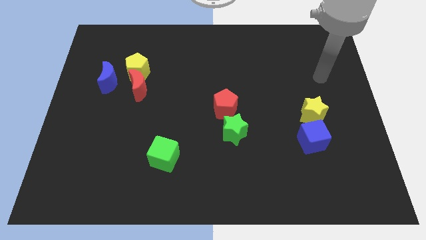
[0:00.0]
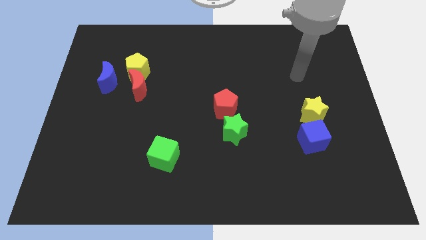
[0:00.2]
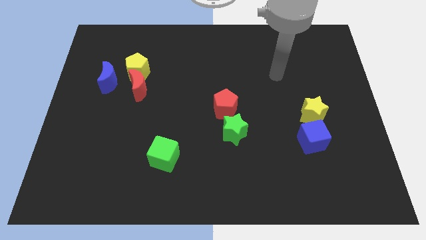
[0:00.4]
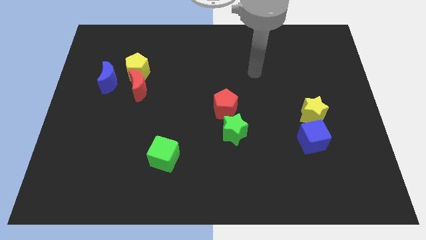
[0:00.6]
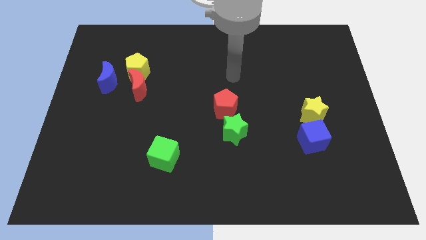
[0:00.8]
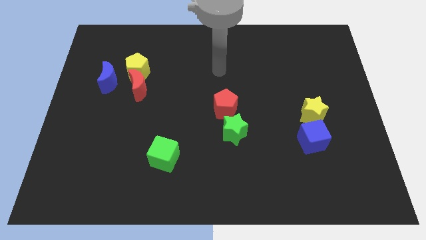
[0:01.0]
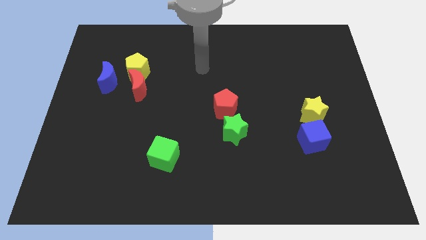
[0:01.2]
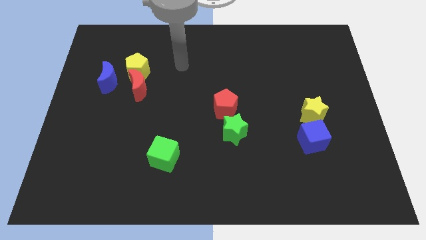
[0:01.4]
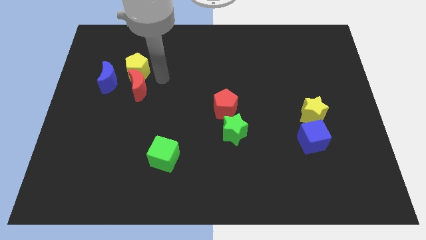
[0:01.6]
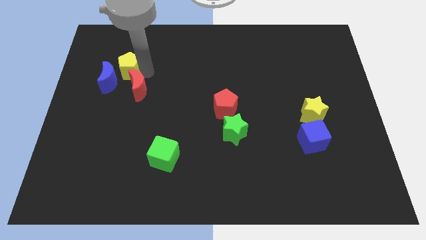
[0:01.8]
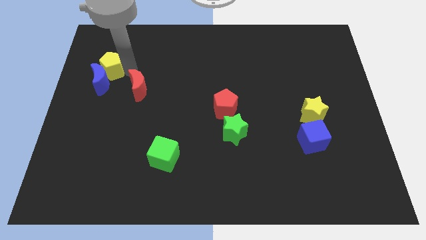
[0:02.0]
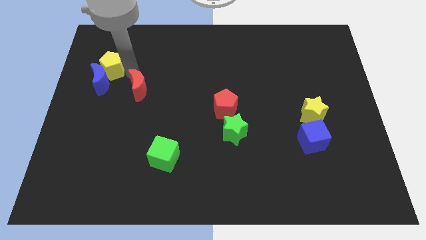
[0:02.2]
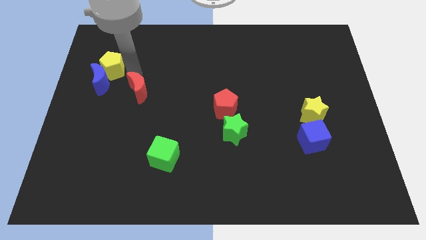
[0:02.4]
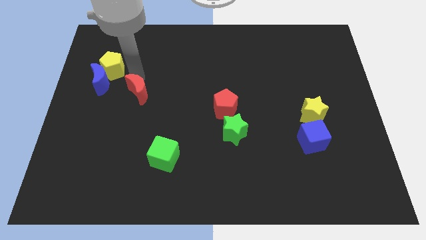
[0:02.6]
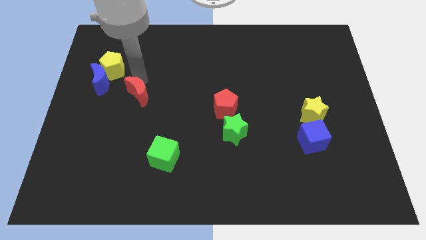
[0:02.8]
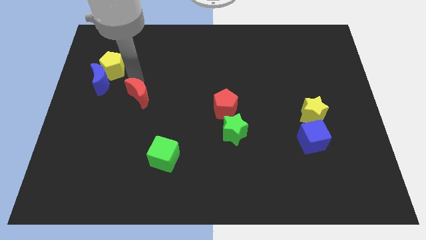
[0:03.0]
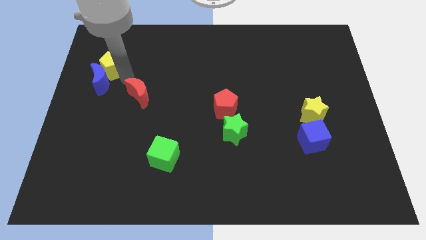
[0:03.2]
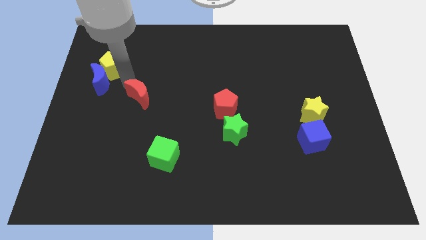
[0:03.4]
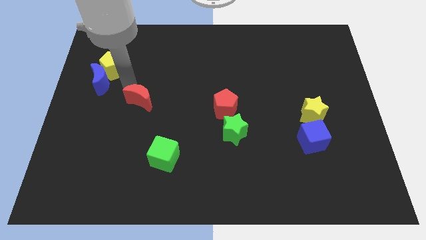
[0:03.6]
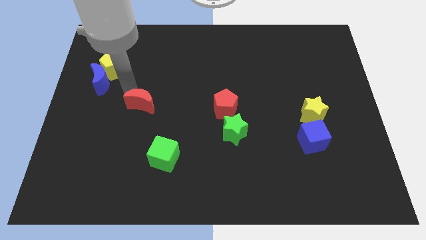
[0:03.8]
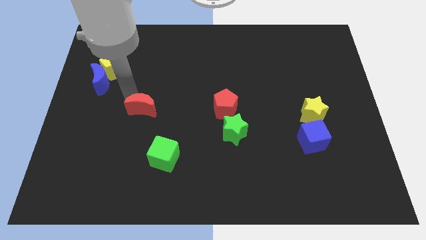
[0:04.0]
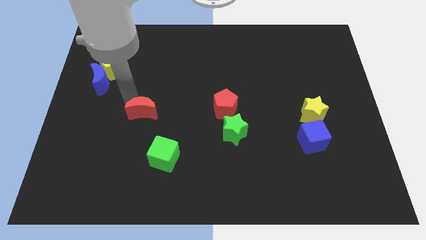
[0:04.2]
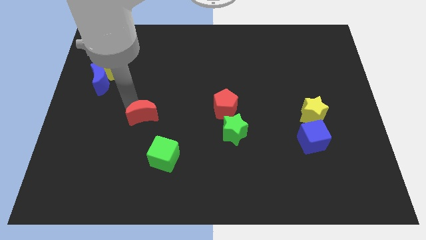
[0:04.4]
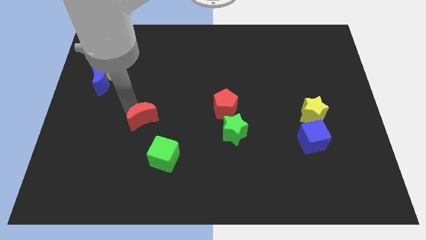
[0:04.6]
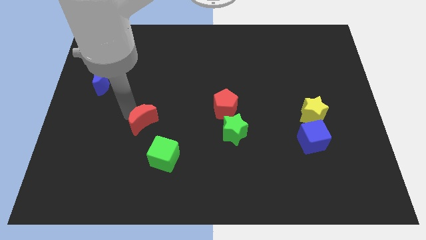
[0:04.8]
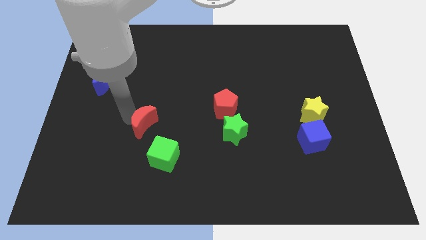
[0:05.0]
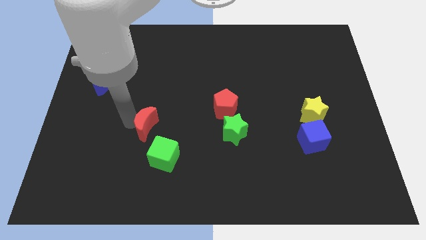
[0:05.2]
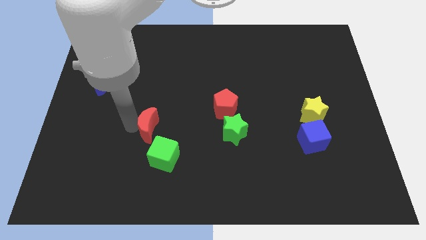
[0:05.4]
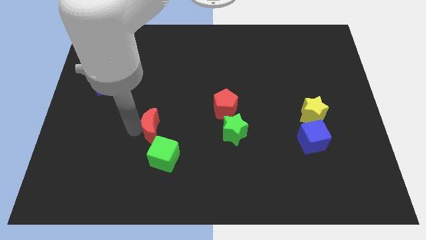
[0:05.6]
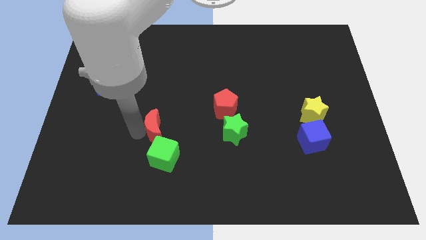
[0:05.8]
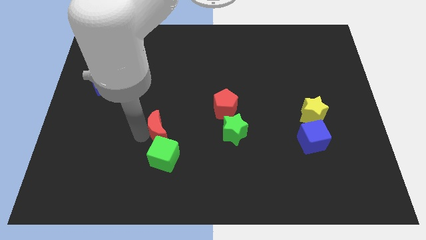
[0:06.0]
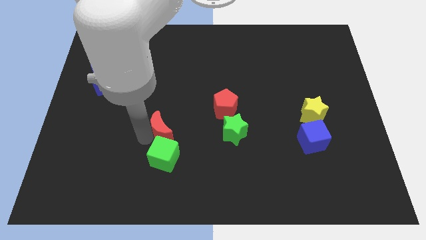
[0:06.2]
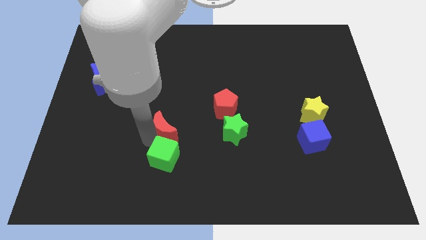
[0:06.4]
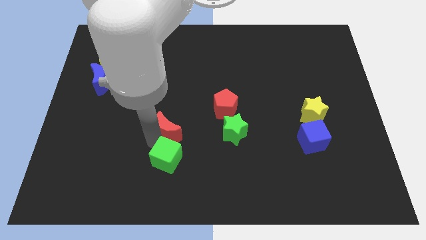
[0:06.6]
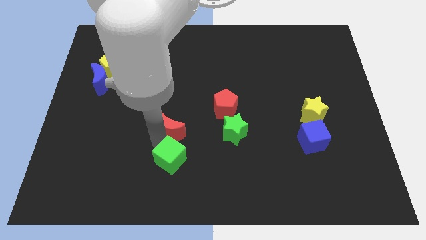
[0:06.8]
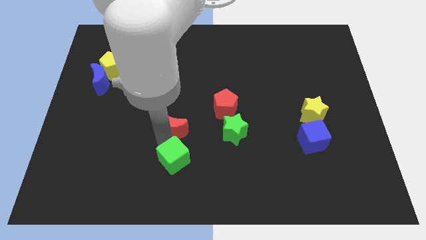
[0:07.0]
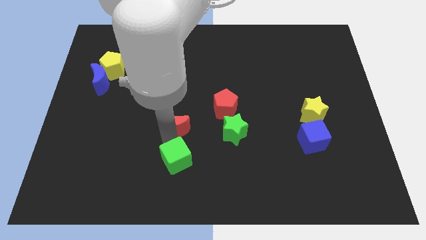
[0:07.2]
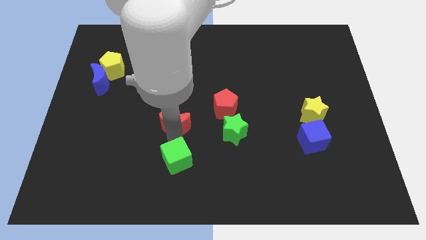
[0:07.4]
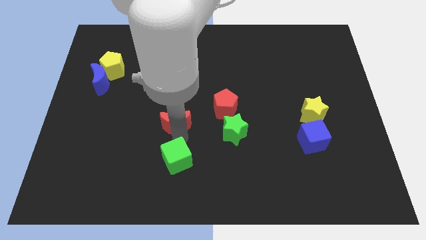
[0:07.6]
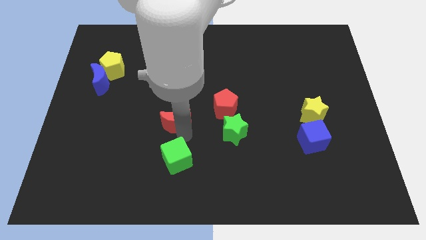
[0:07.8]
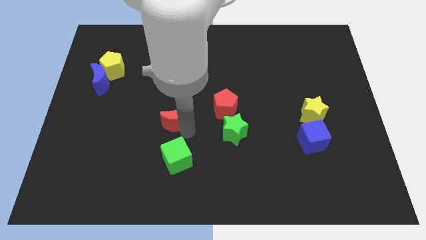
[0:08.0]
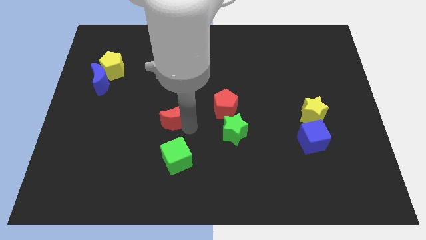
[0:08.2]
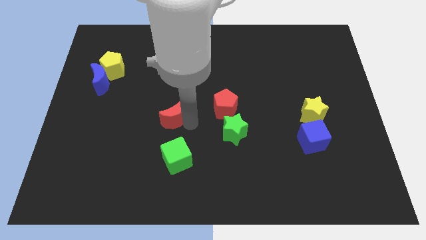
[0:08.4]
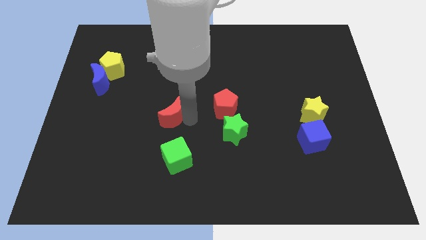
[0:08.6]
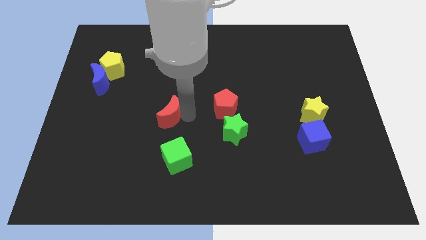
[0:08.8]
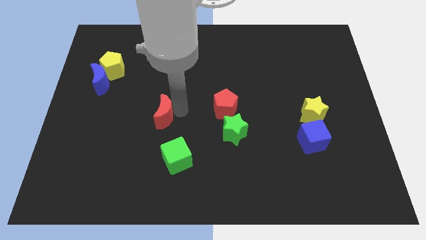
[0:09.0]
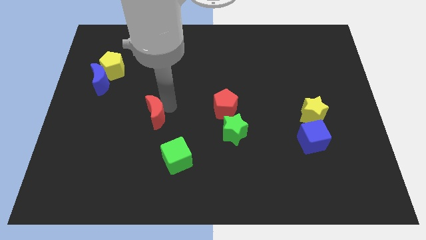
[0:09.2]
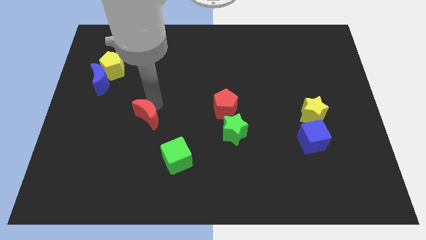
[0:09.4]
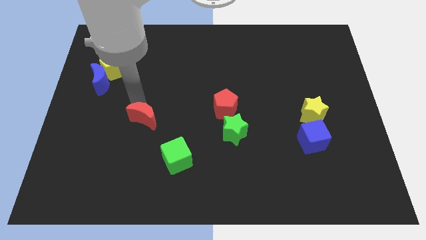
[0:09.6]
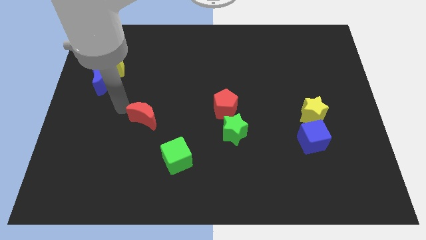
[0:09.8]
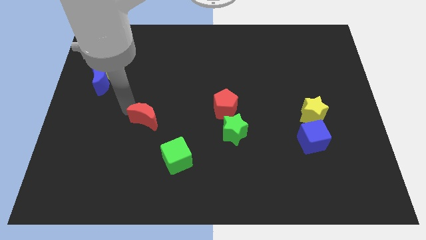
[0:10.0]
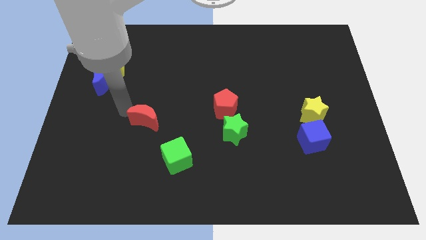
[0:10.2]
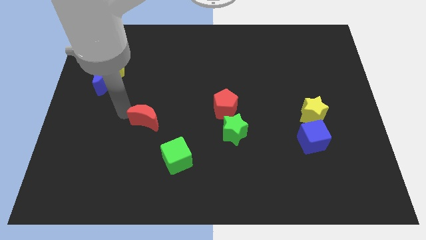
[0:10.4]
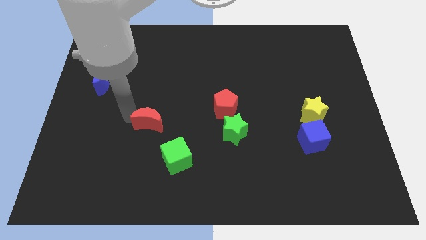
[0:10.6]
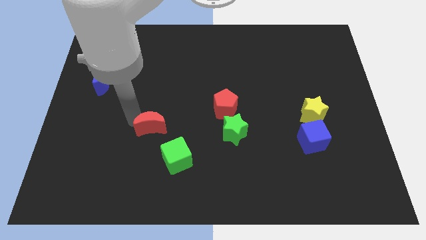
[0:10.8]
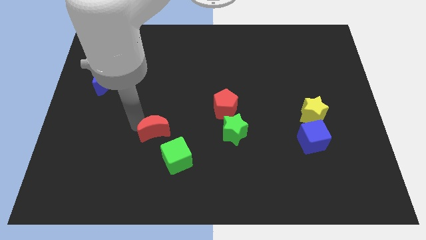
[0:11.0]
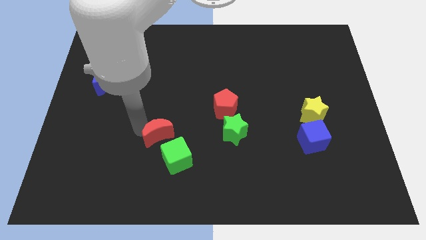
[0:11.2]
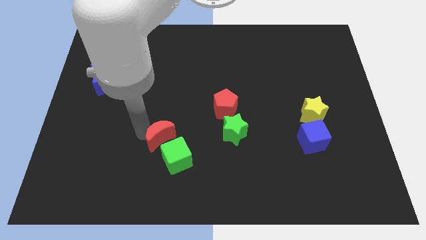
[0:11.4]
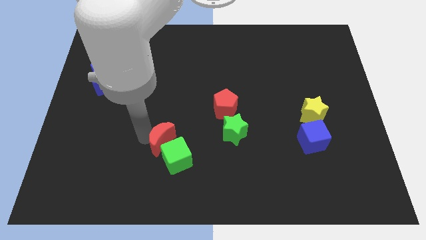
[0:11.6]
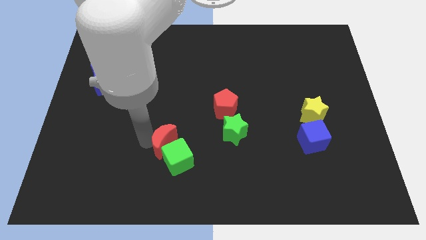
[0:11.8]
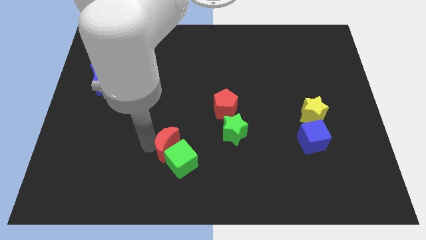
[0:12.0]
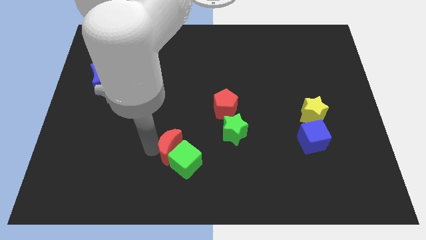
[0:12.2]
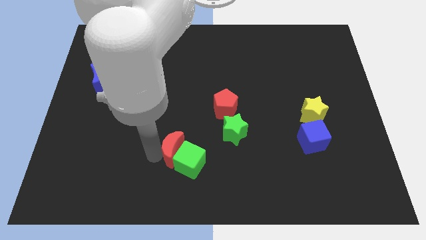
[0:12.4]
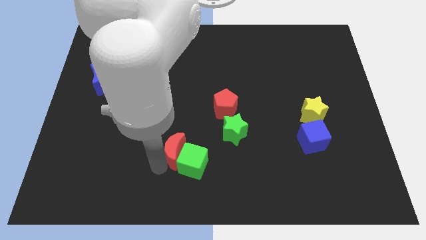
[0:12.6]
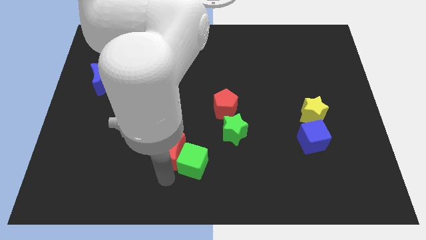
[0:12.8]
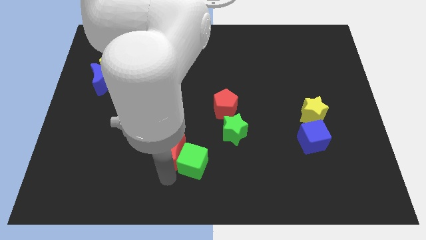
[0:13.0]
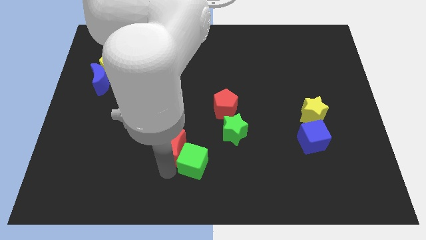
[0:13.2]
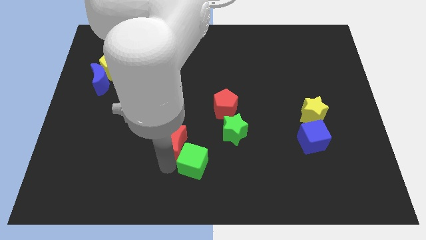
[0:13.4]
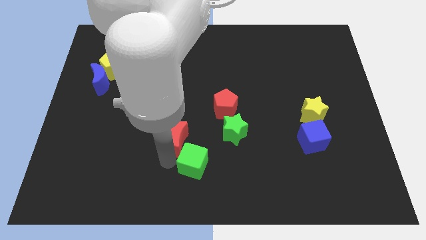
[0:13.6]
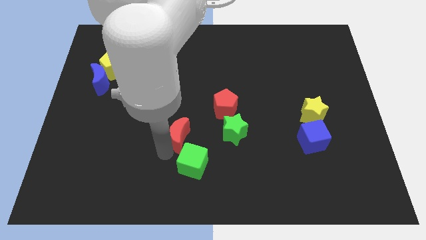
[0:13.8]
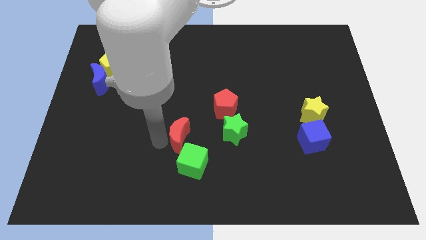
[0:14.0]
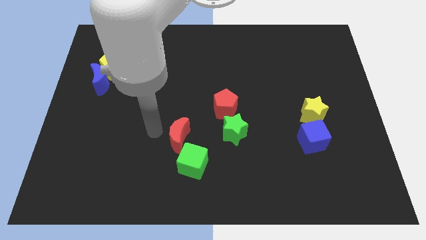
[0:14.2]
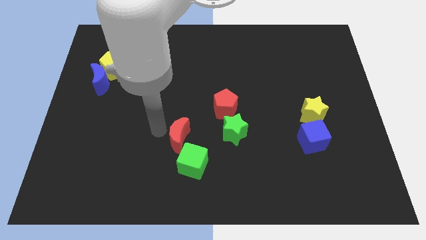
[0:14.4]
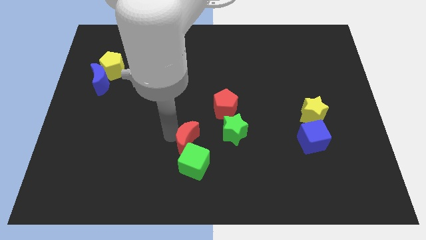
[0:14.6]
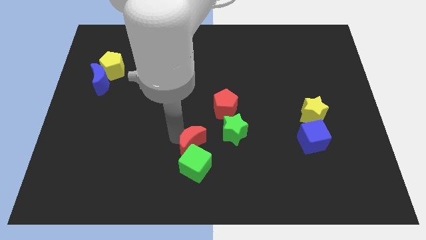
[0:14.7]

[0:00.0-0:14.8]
slide the red moon downwards and right

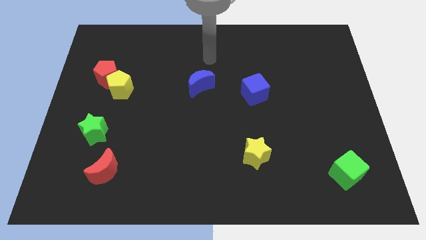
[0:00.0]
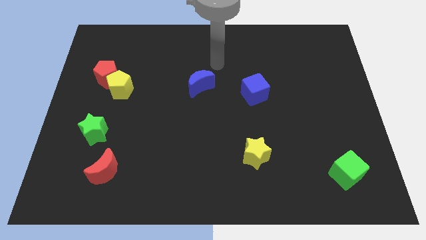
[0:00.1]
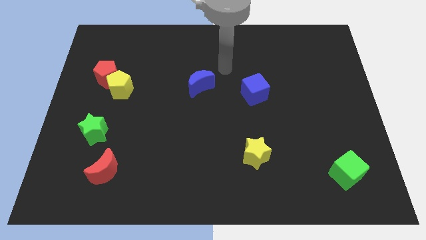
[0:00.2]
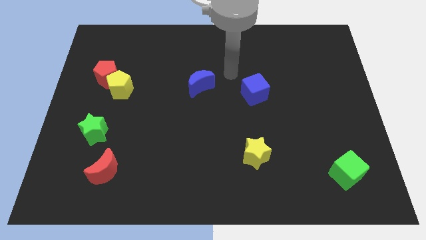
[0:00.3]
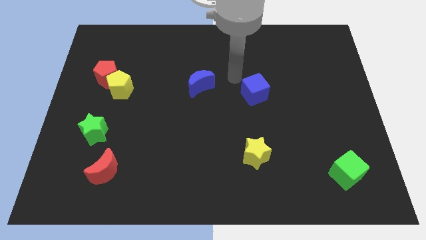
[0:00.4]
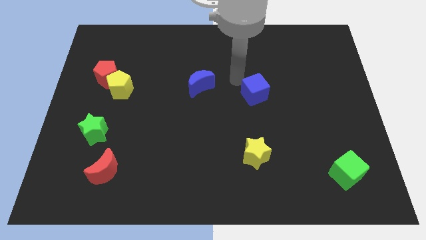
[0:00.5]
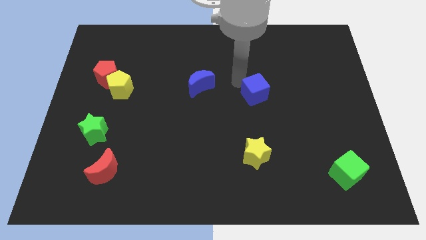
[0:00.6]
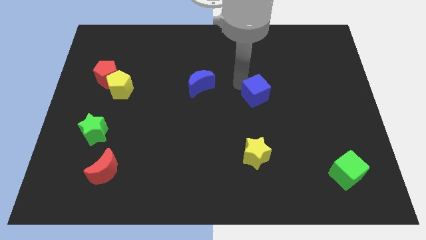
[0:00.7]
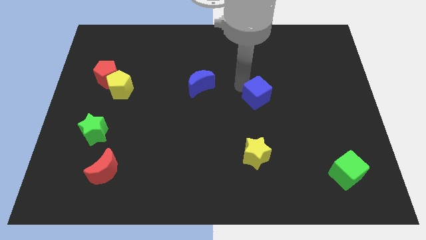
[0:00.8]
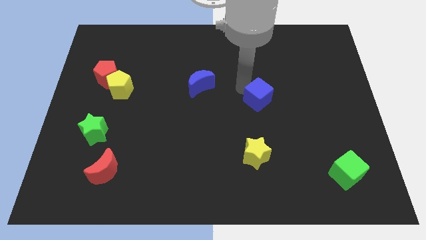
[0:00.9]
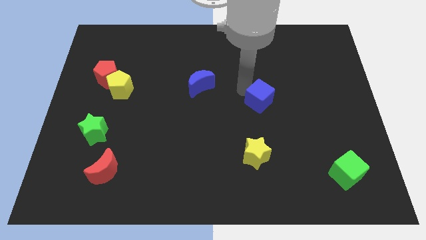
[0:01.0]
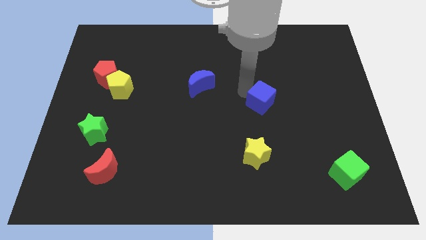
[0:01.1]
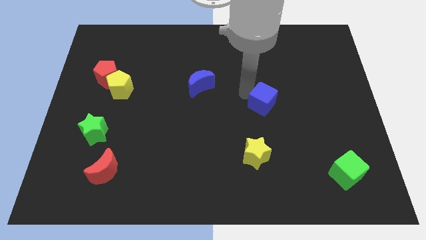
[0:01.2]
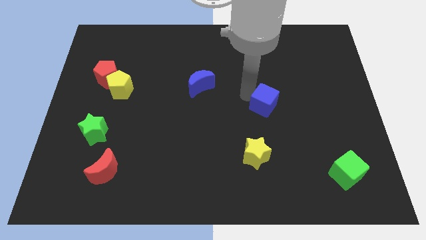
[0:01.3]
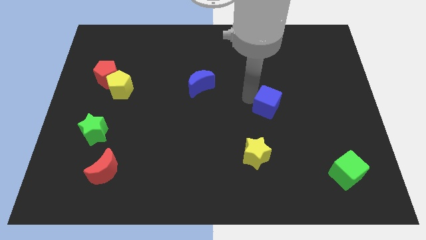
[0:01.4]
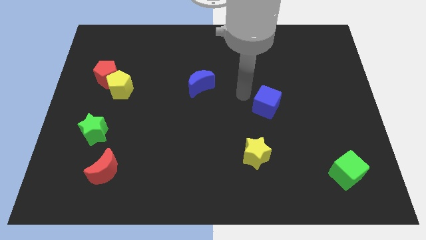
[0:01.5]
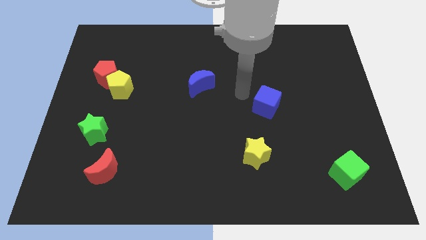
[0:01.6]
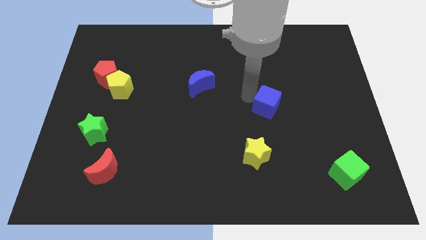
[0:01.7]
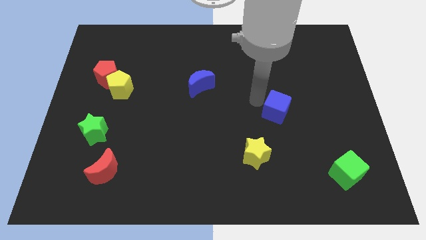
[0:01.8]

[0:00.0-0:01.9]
push the blue cube a little bit diagonally downwards and right
